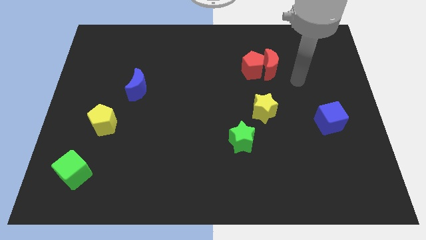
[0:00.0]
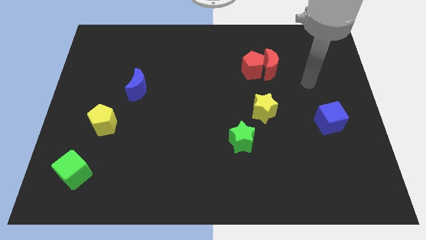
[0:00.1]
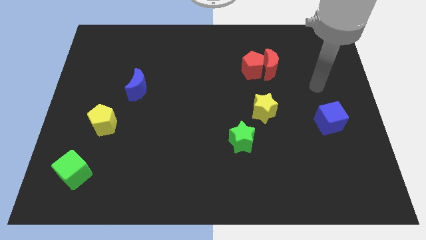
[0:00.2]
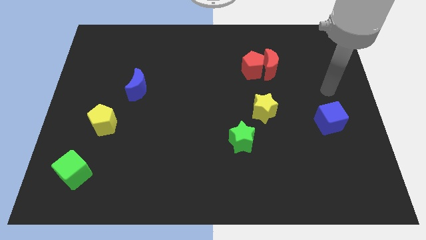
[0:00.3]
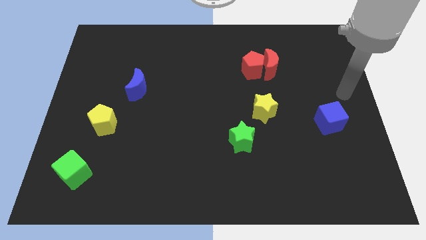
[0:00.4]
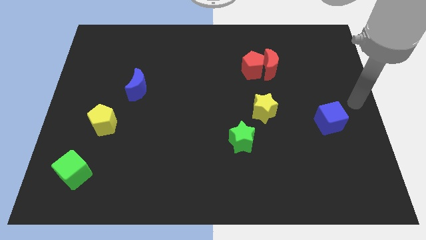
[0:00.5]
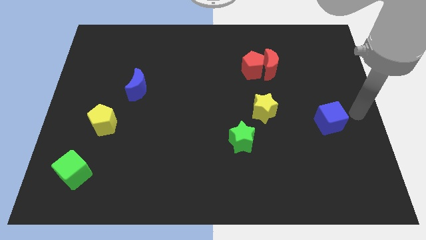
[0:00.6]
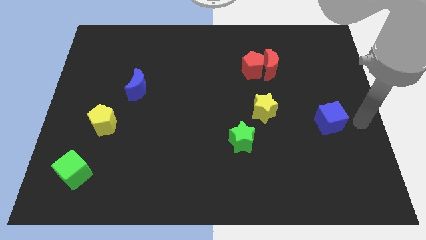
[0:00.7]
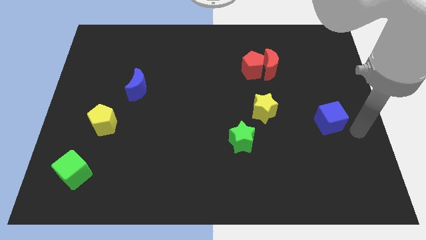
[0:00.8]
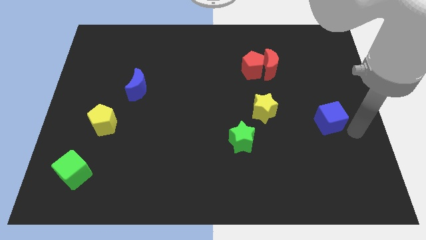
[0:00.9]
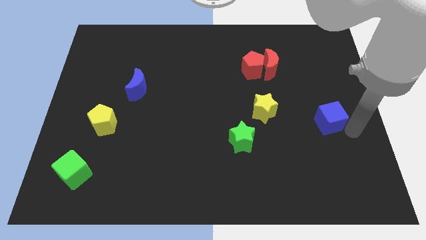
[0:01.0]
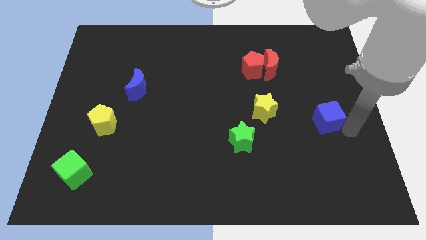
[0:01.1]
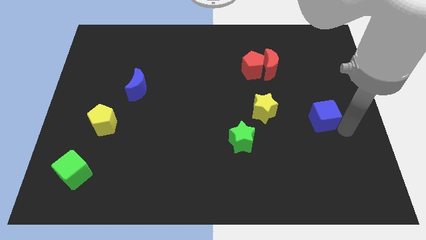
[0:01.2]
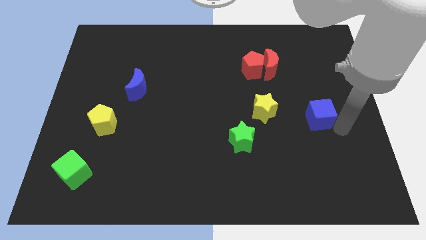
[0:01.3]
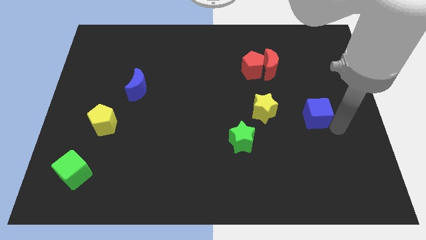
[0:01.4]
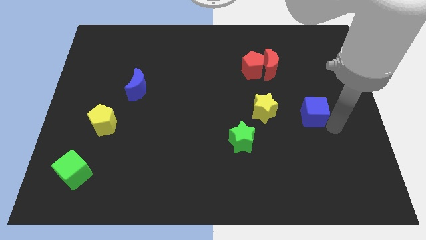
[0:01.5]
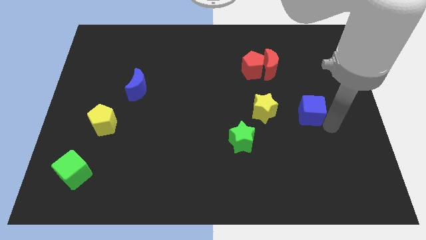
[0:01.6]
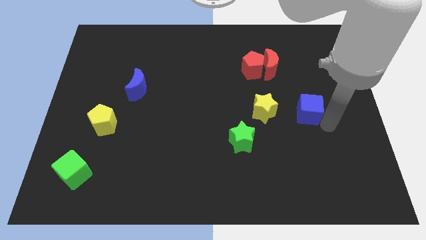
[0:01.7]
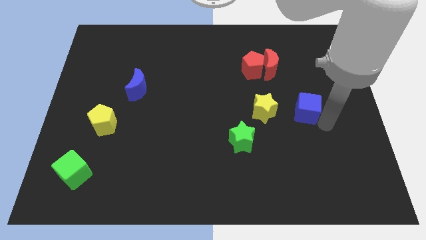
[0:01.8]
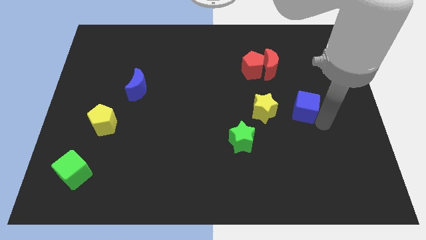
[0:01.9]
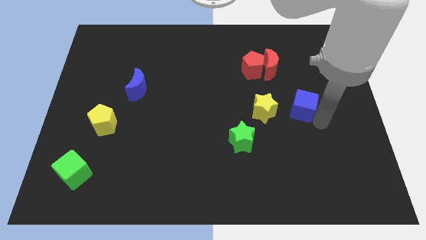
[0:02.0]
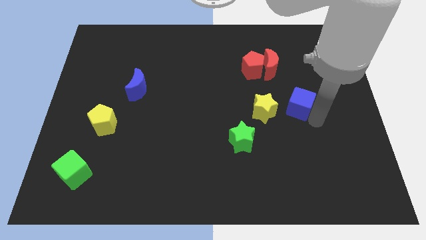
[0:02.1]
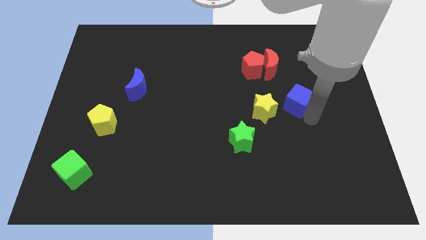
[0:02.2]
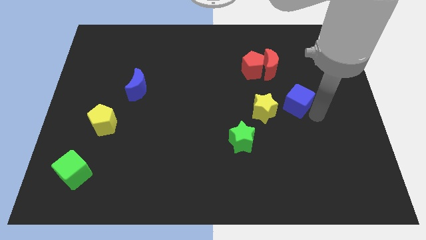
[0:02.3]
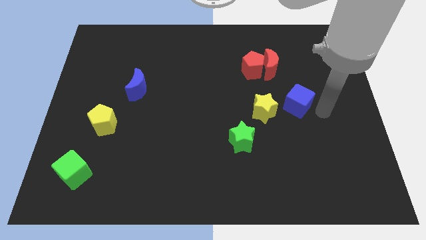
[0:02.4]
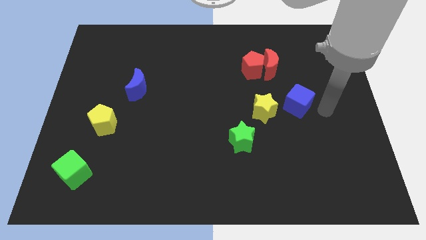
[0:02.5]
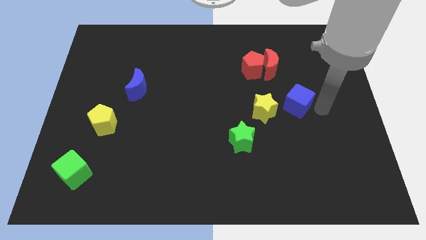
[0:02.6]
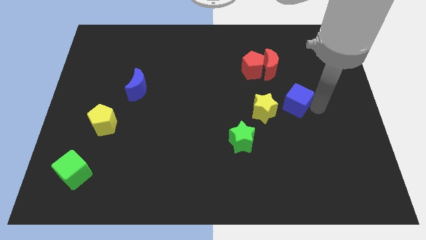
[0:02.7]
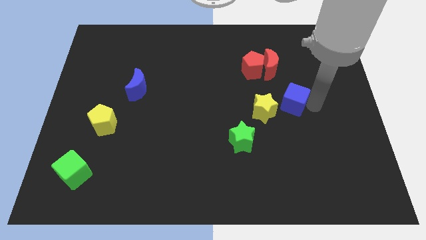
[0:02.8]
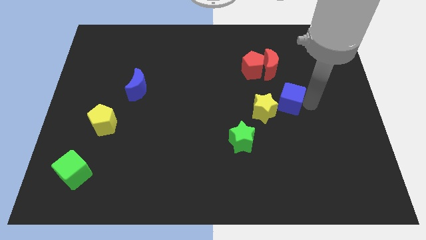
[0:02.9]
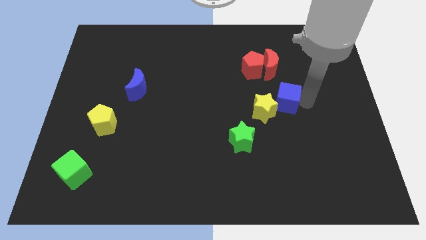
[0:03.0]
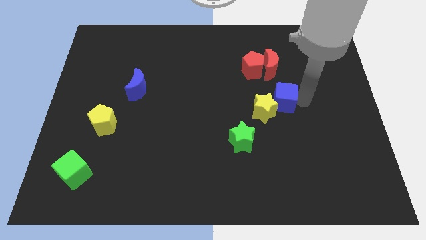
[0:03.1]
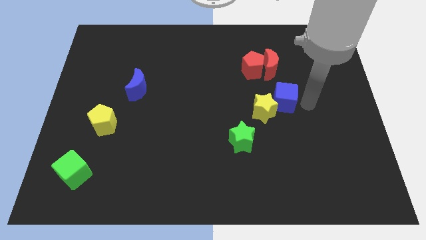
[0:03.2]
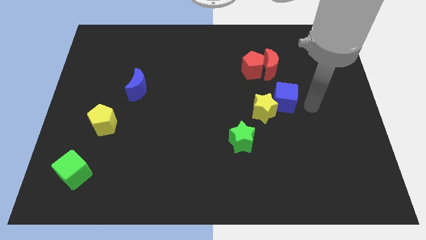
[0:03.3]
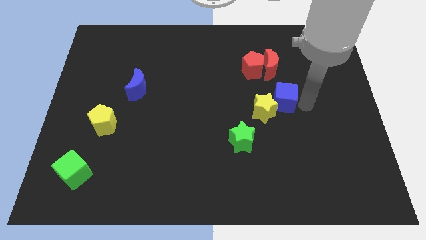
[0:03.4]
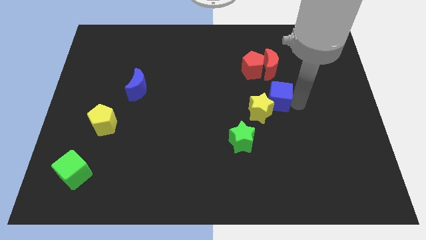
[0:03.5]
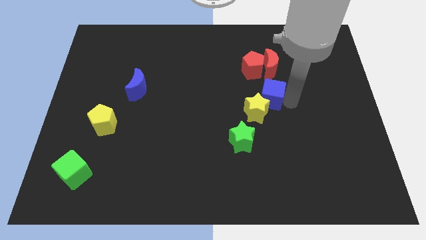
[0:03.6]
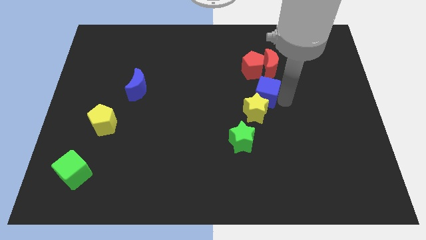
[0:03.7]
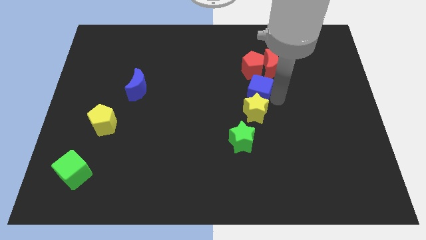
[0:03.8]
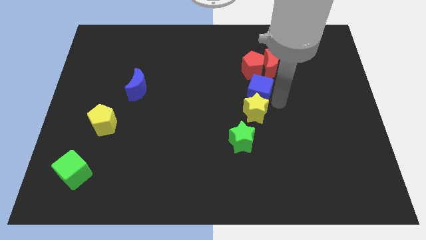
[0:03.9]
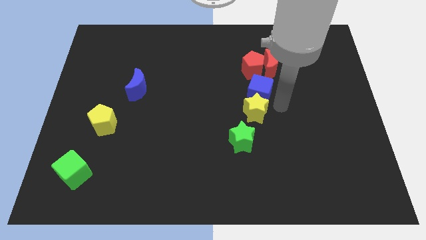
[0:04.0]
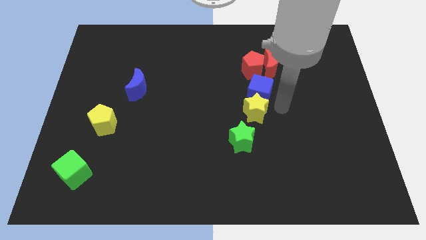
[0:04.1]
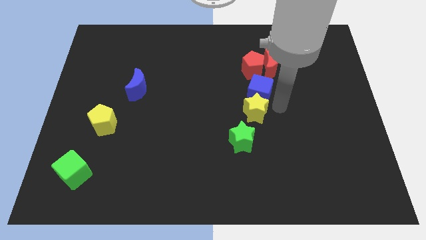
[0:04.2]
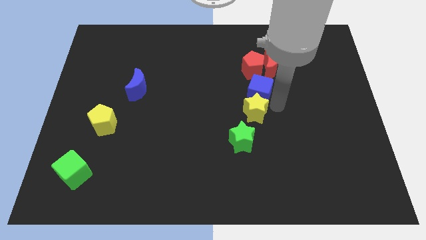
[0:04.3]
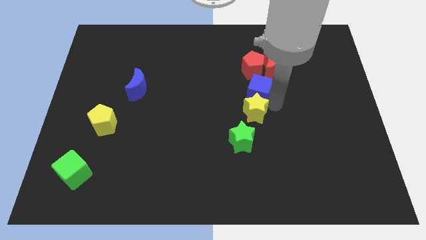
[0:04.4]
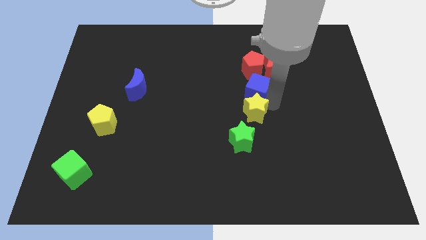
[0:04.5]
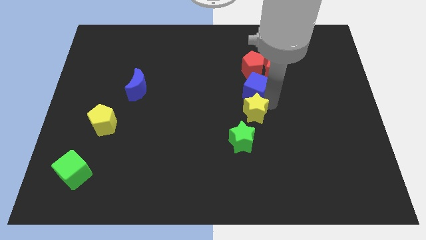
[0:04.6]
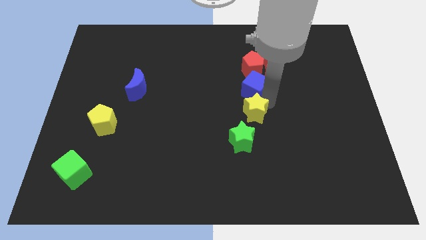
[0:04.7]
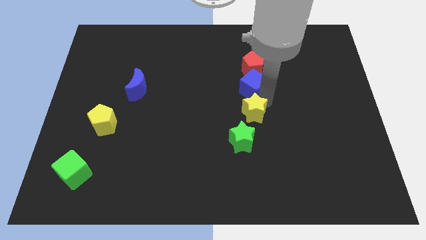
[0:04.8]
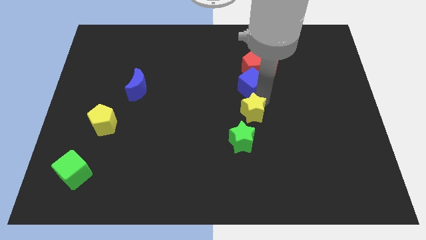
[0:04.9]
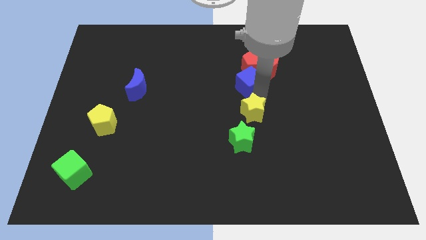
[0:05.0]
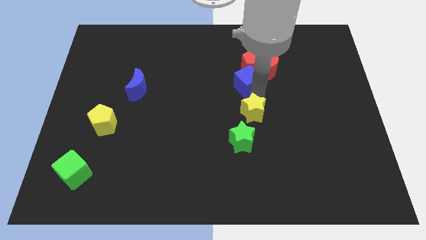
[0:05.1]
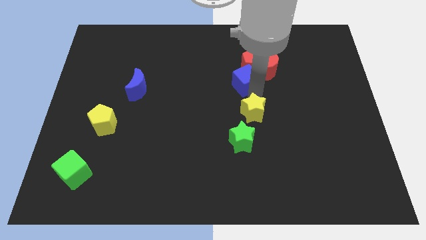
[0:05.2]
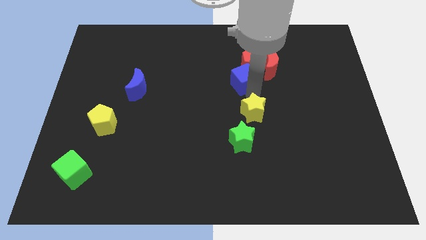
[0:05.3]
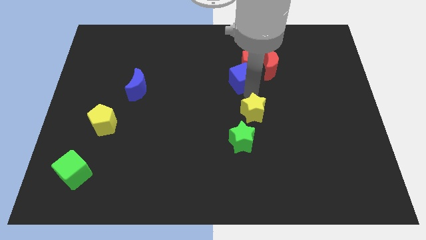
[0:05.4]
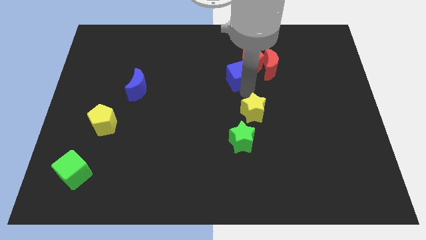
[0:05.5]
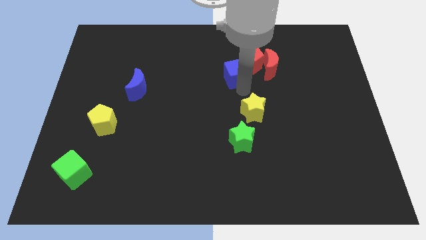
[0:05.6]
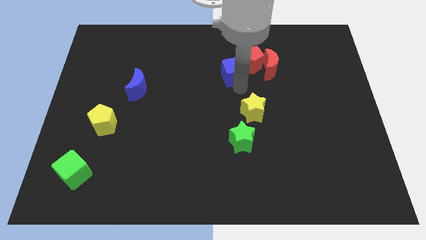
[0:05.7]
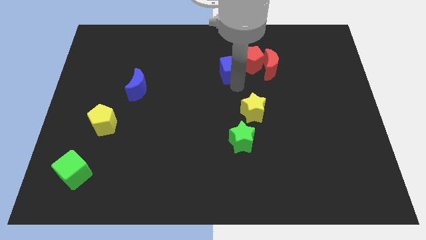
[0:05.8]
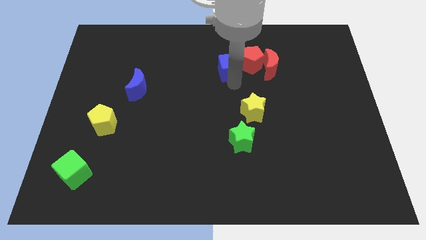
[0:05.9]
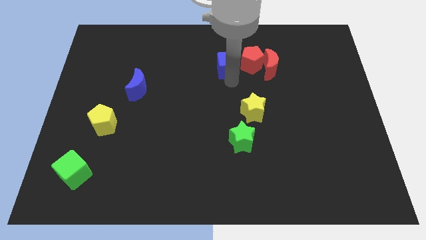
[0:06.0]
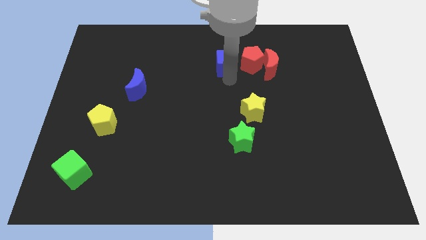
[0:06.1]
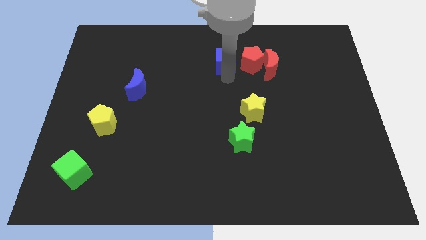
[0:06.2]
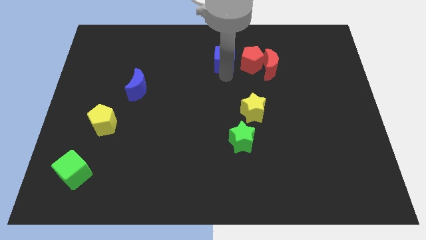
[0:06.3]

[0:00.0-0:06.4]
put the blue cube diagonally up and to the left of the red pentagon

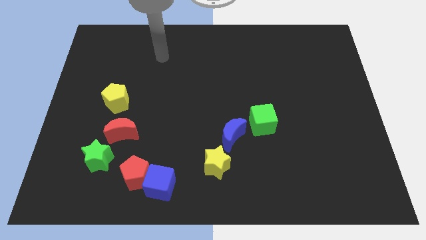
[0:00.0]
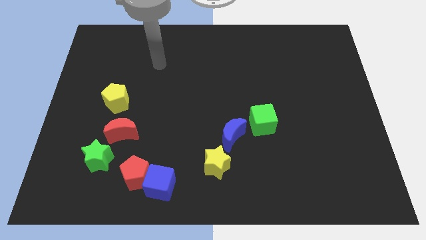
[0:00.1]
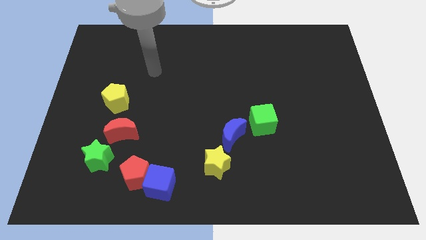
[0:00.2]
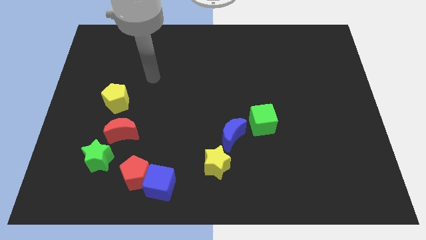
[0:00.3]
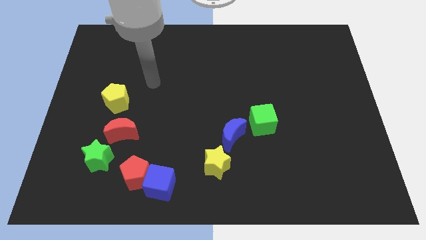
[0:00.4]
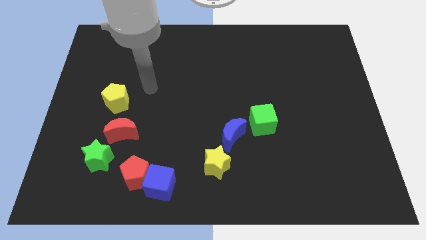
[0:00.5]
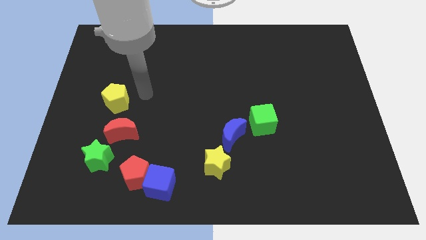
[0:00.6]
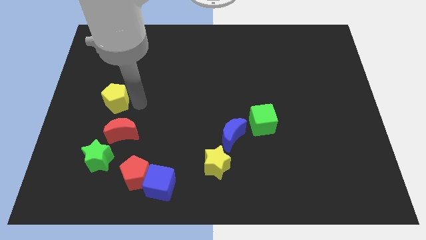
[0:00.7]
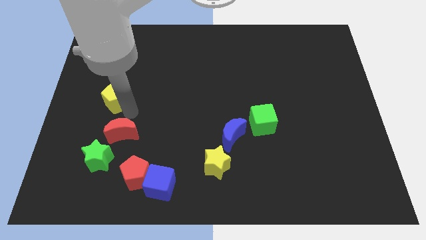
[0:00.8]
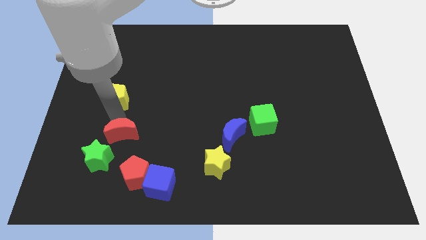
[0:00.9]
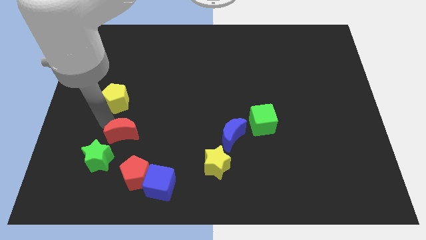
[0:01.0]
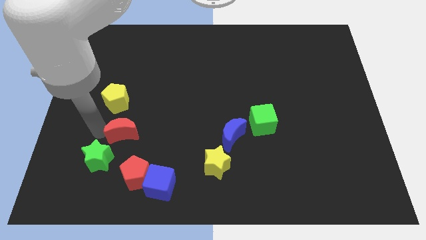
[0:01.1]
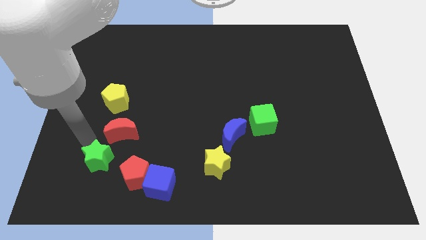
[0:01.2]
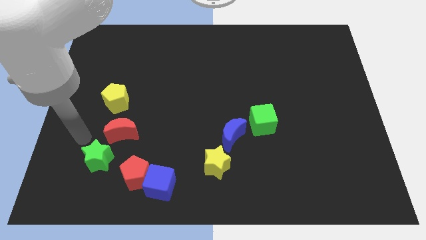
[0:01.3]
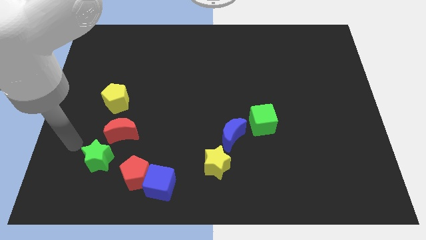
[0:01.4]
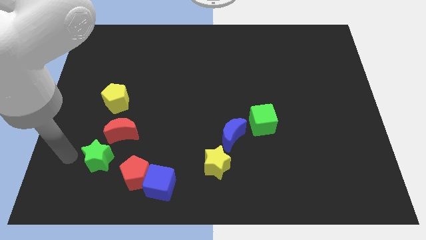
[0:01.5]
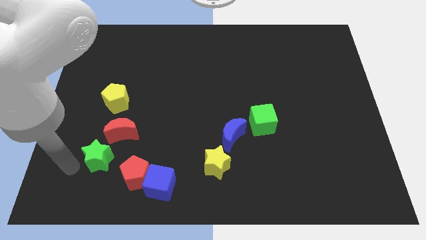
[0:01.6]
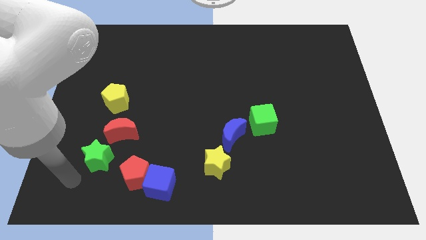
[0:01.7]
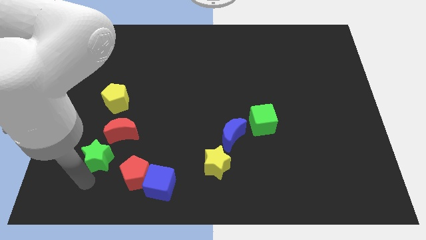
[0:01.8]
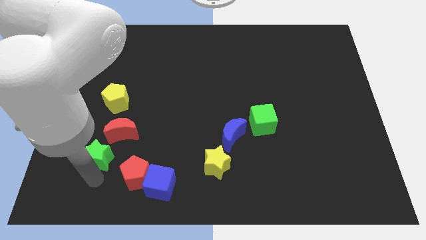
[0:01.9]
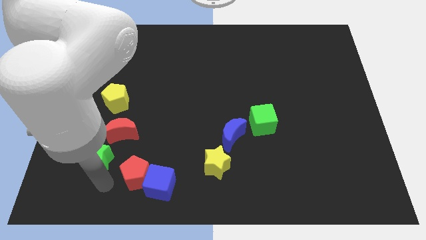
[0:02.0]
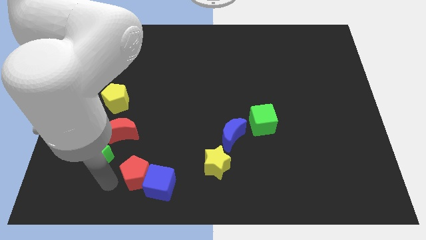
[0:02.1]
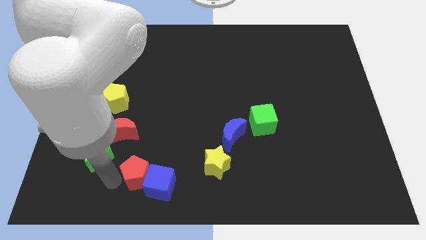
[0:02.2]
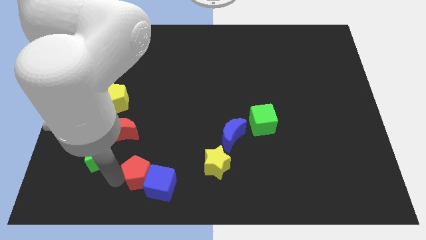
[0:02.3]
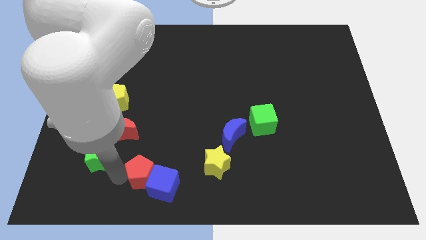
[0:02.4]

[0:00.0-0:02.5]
put the red pentagon to the left side of the yellow star
